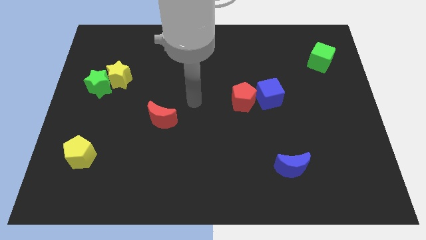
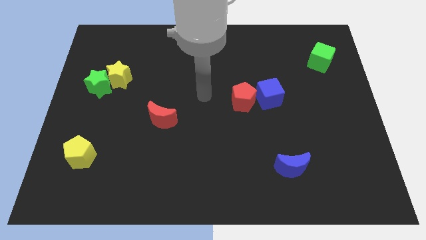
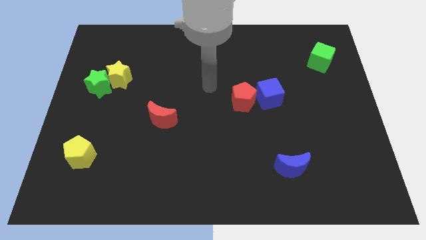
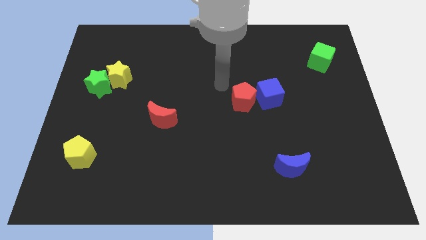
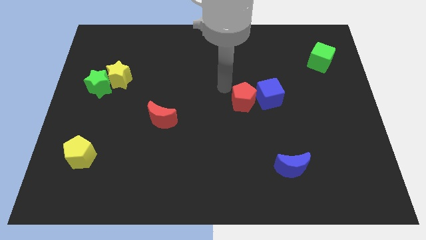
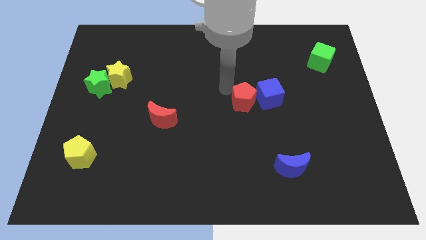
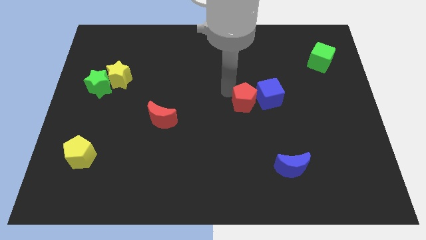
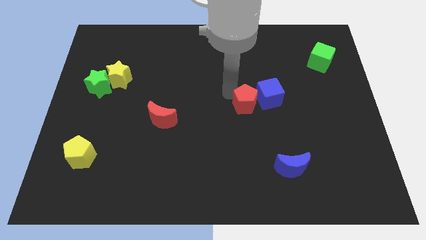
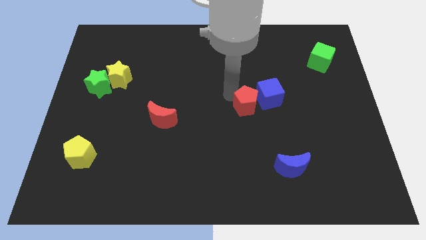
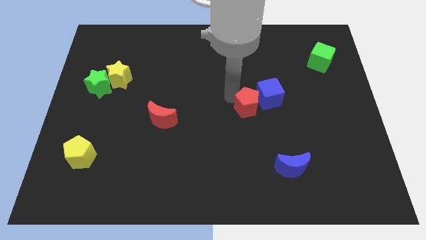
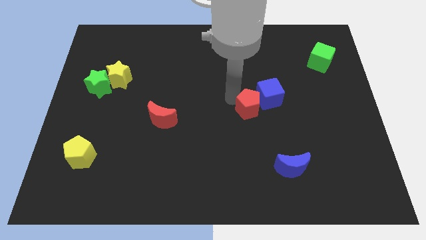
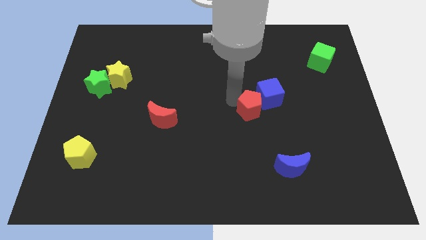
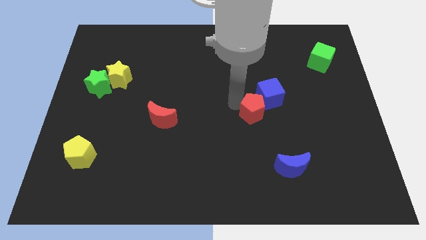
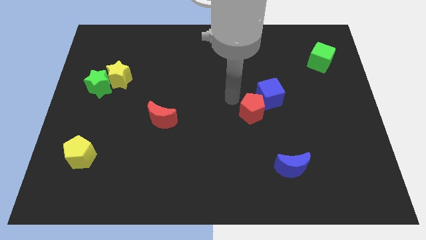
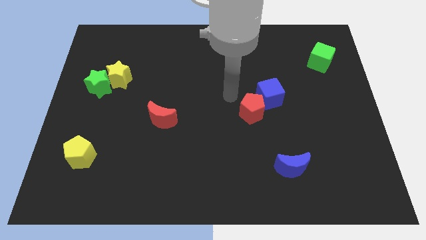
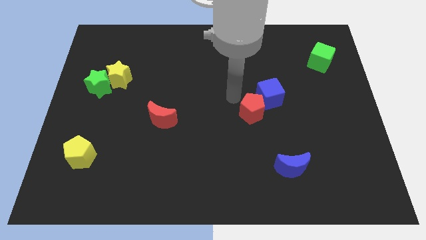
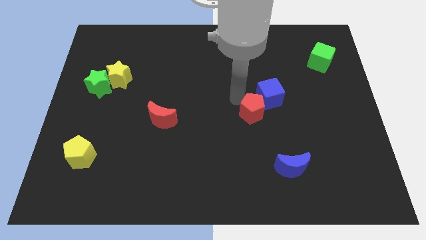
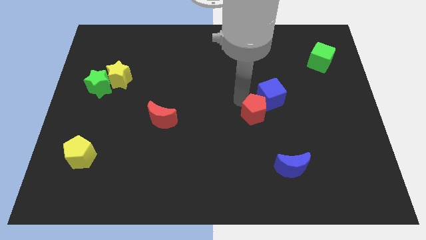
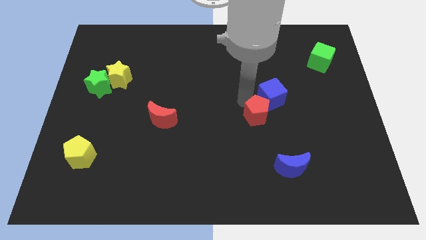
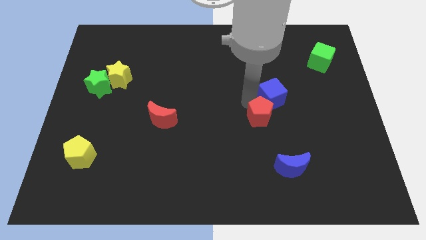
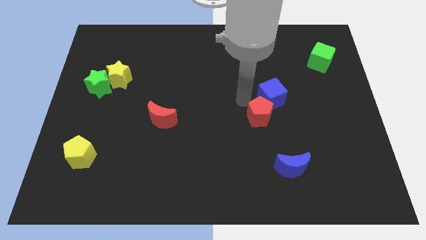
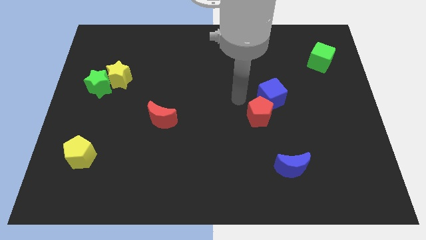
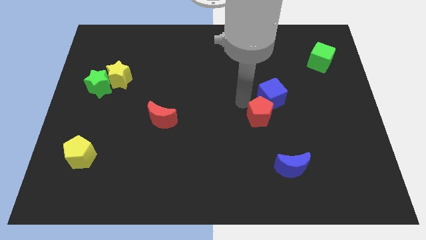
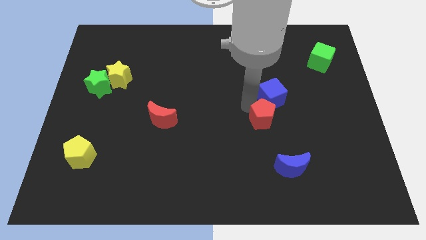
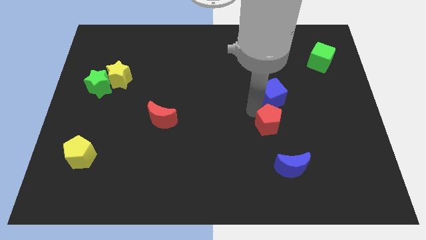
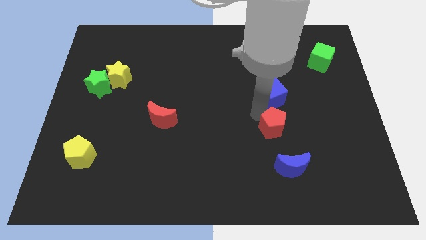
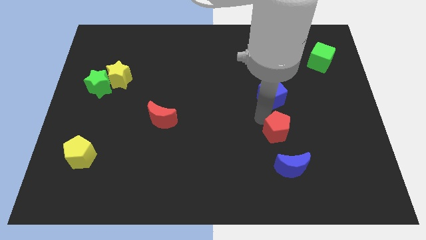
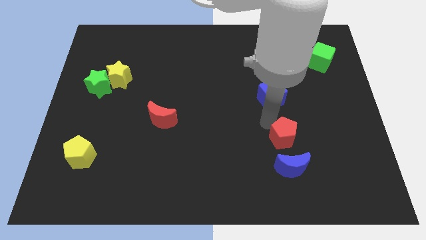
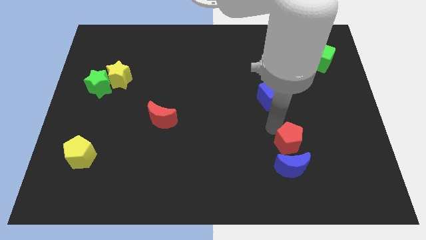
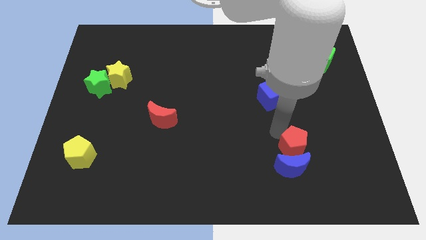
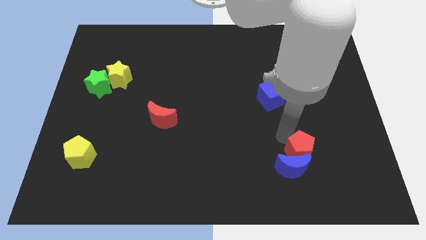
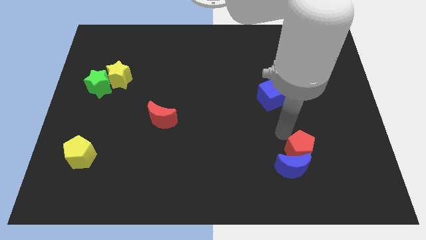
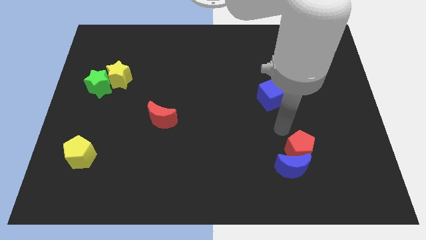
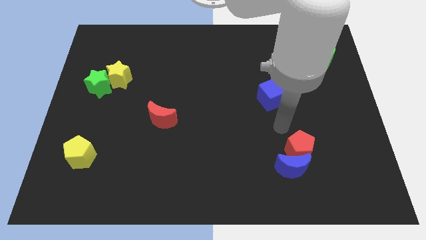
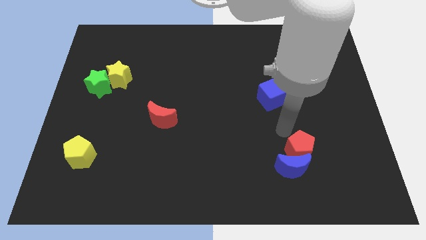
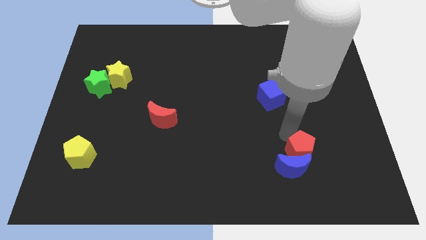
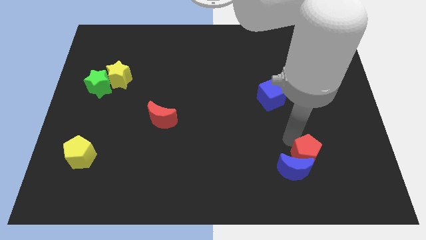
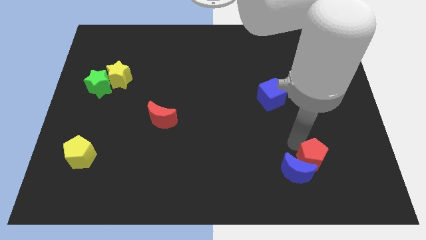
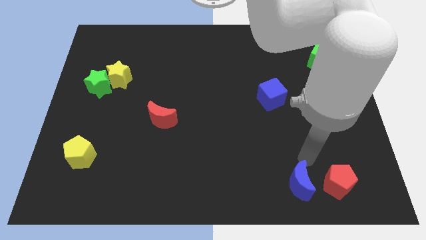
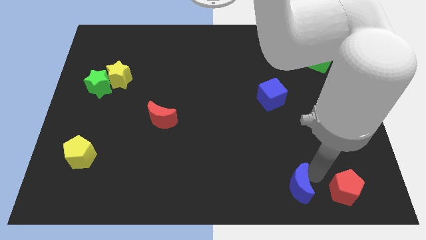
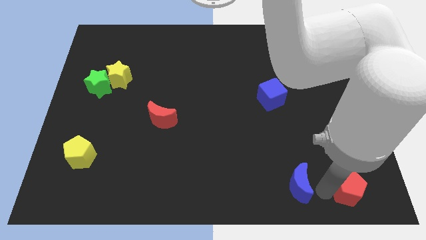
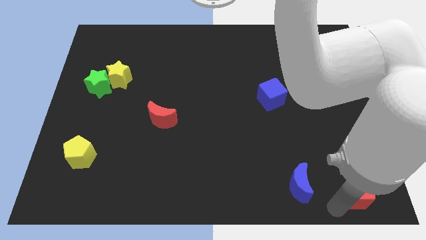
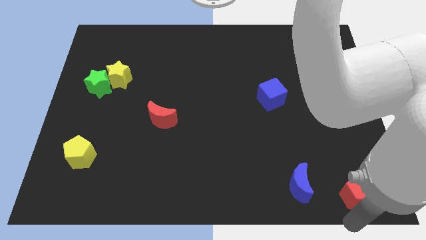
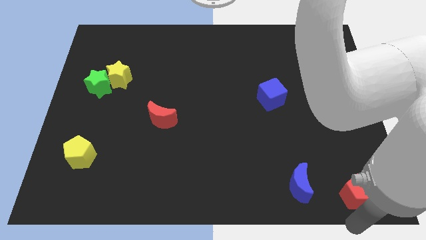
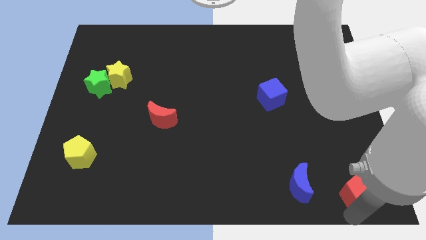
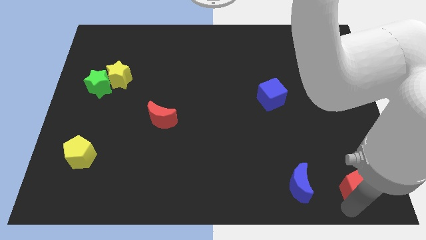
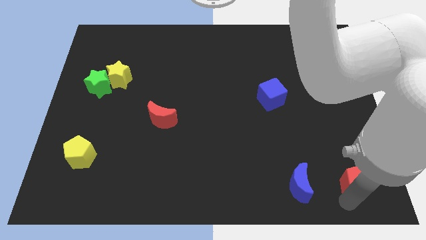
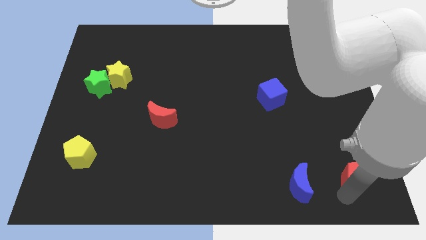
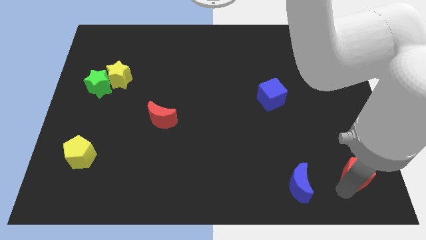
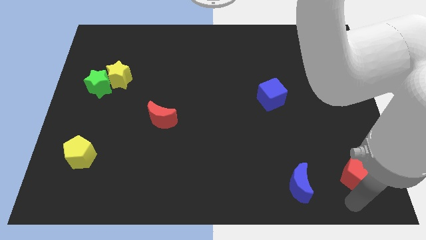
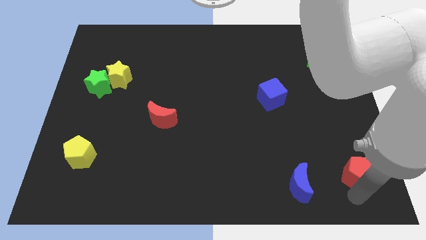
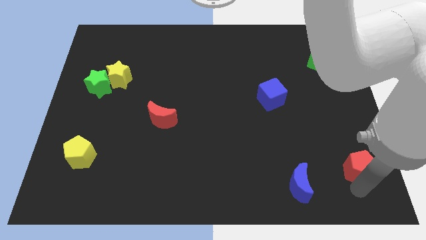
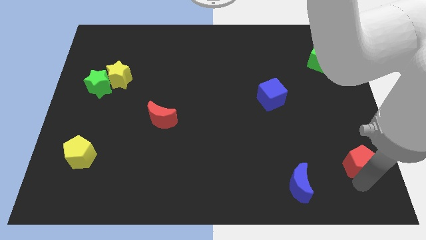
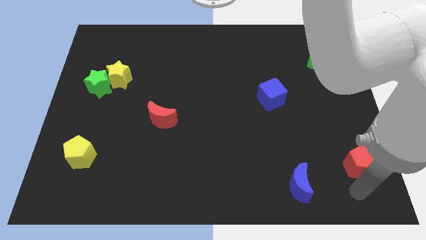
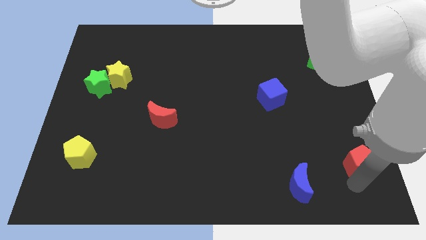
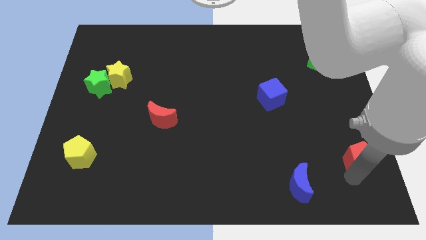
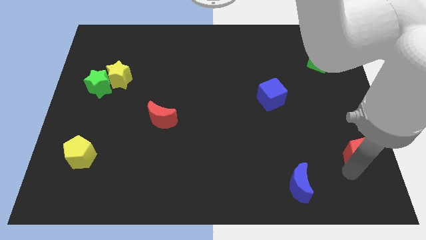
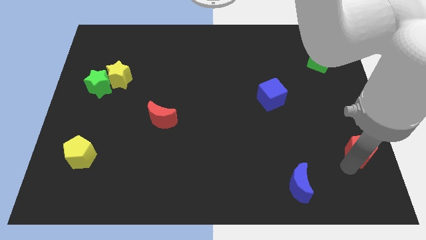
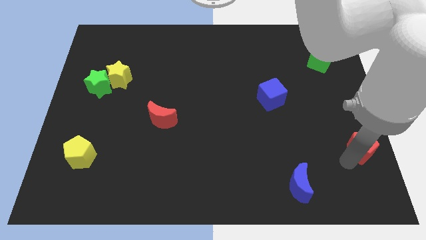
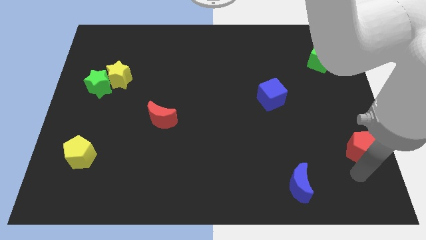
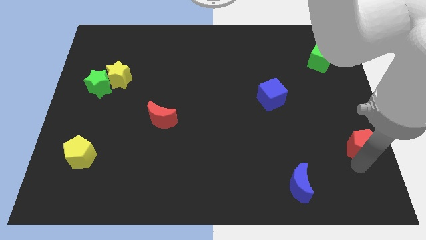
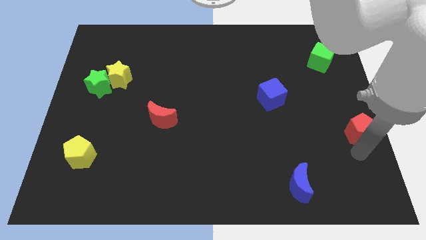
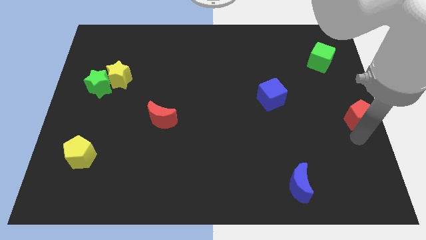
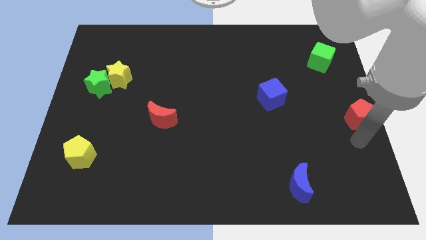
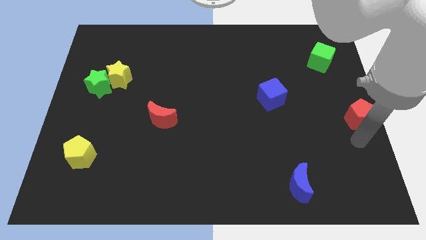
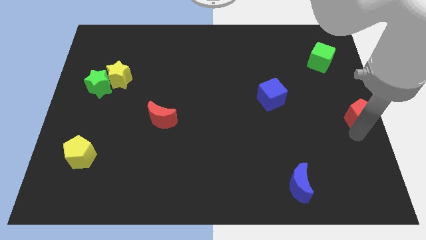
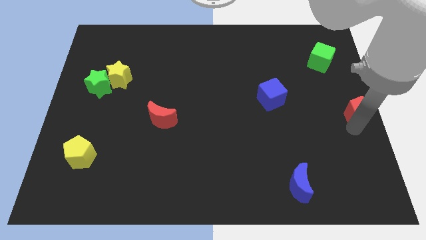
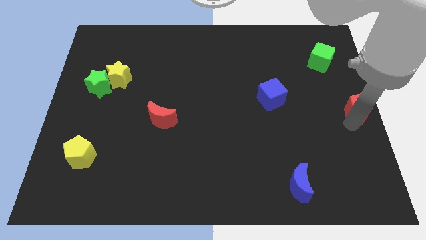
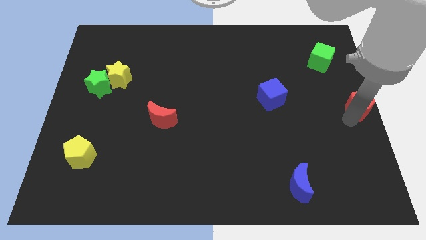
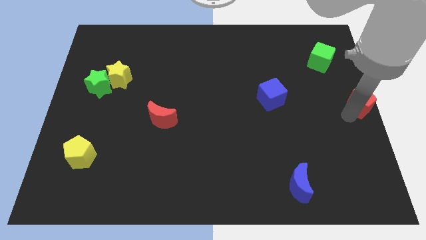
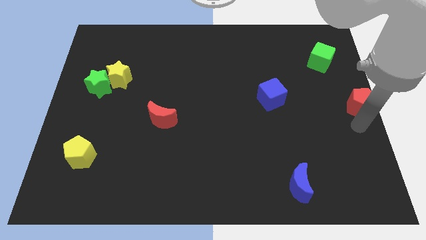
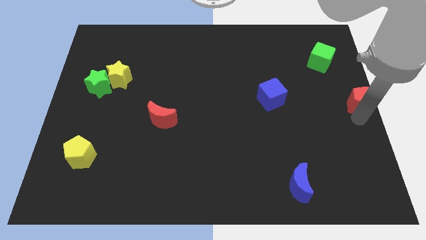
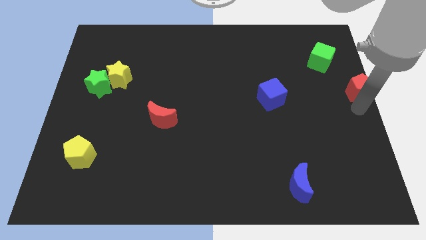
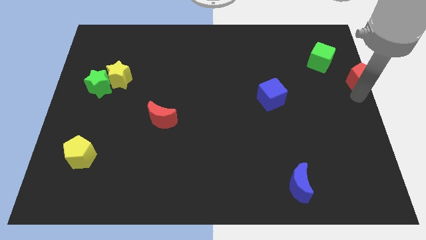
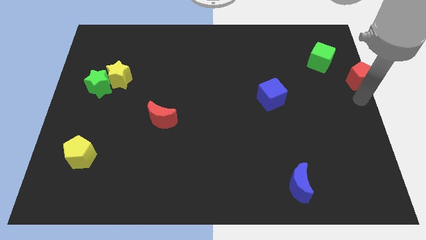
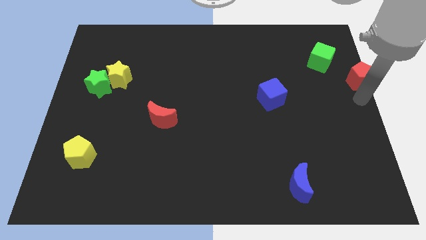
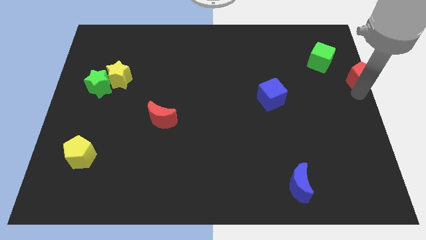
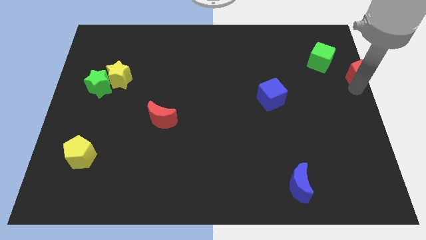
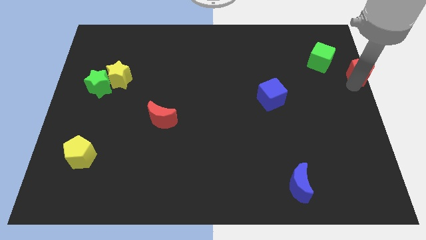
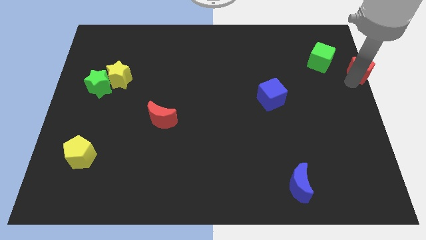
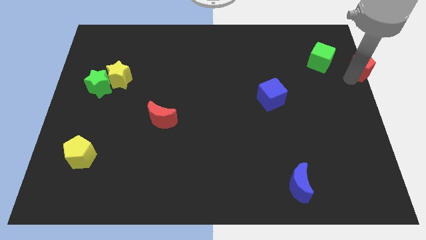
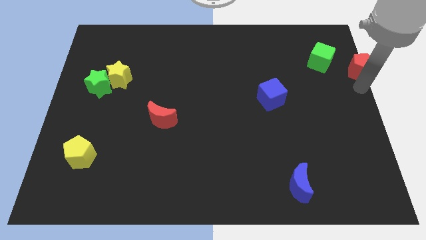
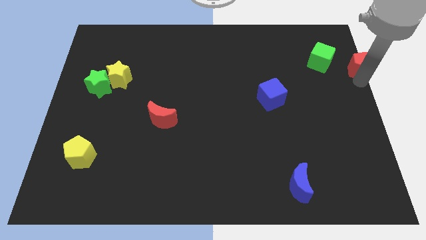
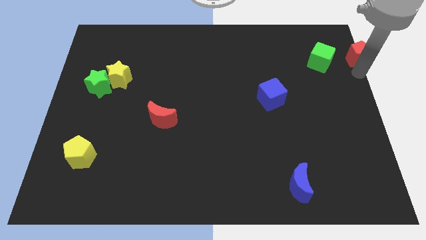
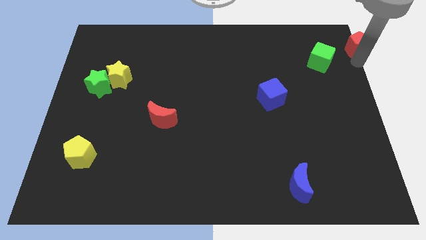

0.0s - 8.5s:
put the red pentagon to the top right of the board
